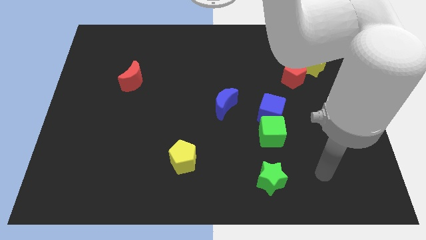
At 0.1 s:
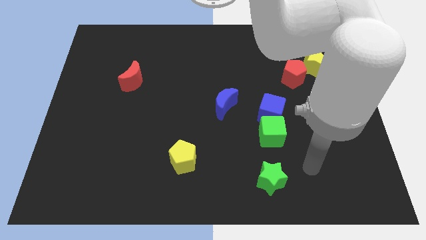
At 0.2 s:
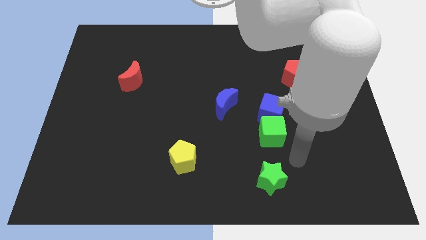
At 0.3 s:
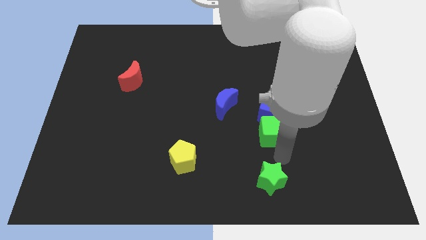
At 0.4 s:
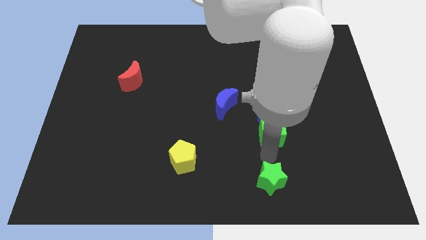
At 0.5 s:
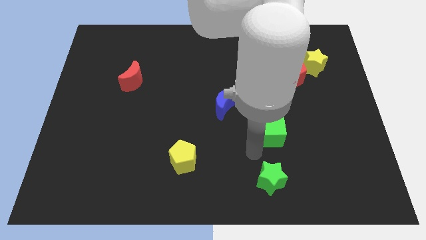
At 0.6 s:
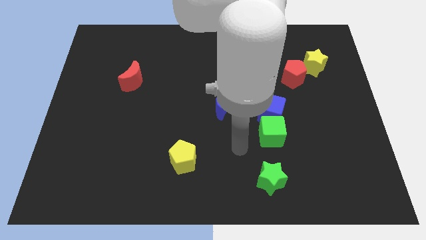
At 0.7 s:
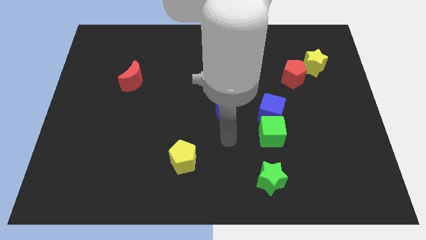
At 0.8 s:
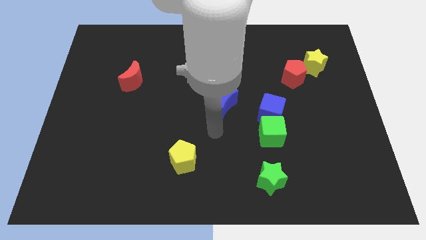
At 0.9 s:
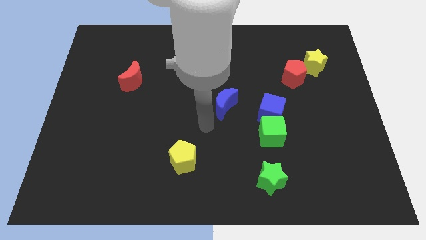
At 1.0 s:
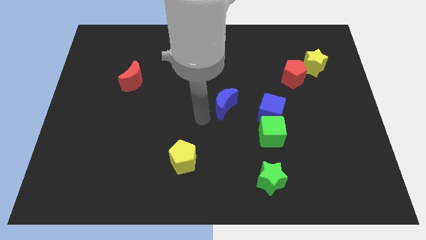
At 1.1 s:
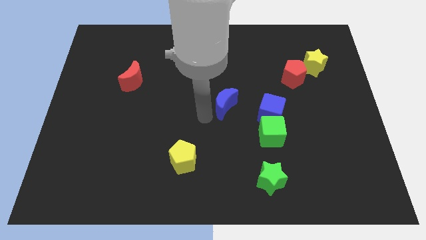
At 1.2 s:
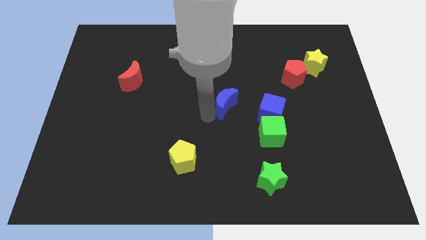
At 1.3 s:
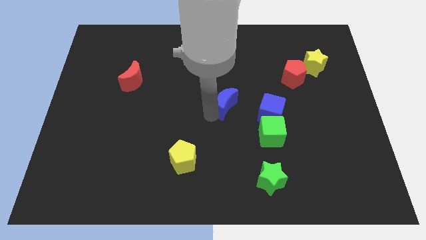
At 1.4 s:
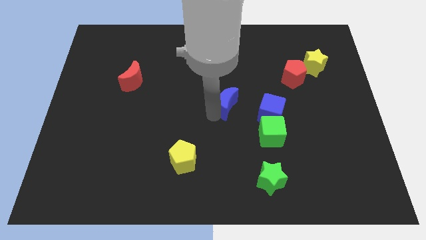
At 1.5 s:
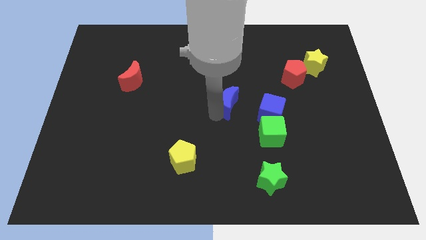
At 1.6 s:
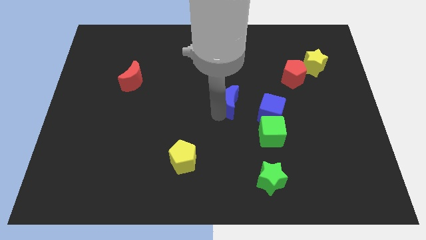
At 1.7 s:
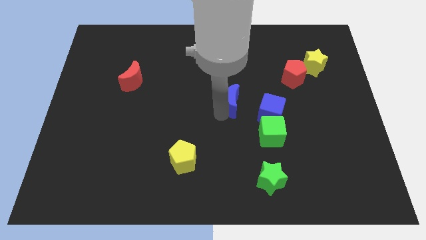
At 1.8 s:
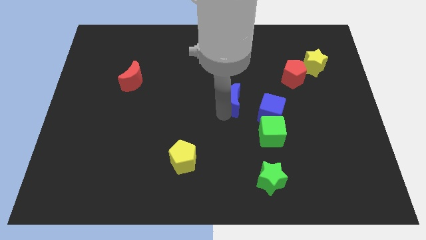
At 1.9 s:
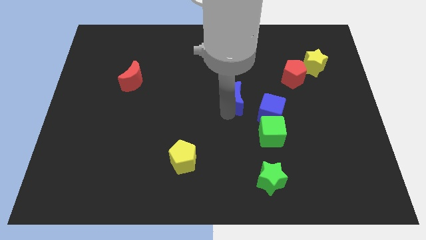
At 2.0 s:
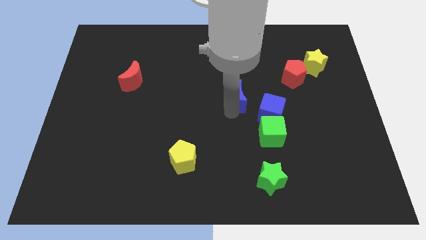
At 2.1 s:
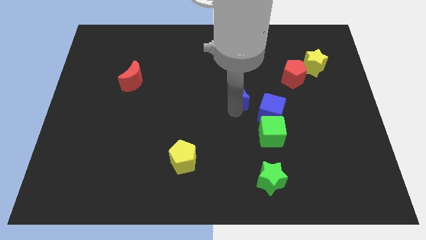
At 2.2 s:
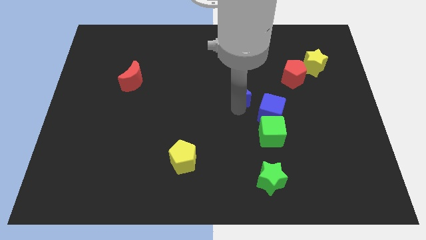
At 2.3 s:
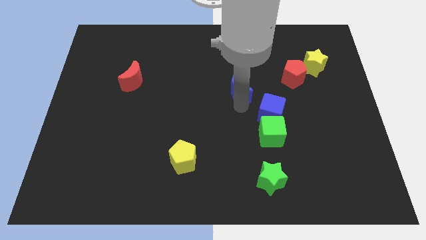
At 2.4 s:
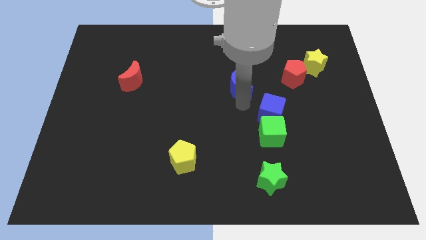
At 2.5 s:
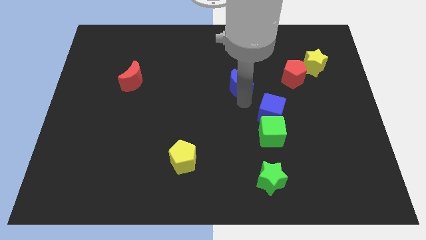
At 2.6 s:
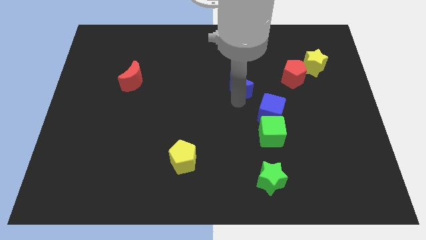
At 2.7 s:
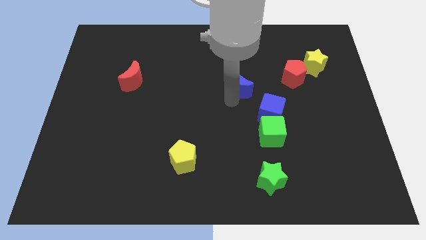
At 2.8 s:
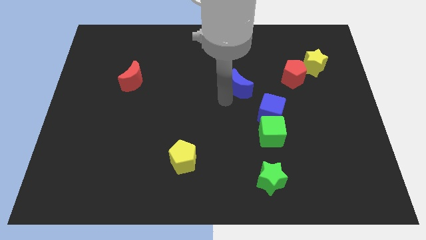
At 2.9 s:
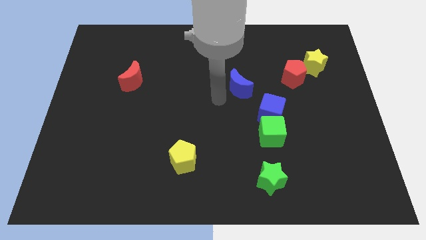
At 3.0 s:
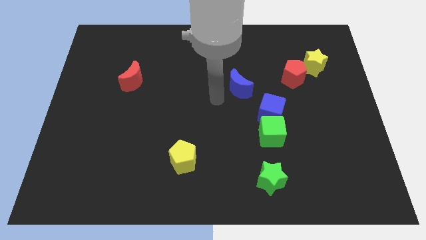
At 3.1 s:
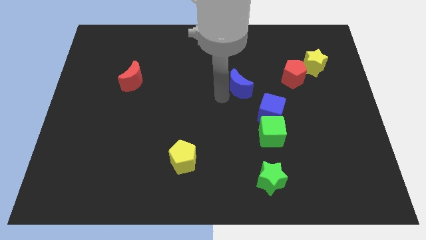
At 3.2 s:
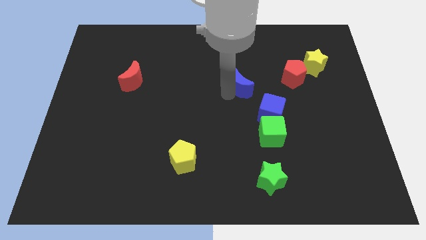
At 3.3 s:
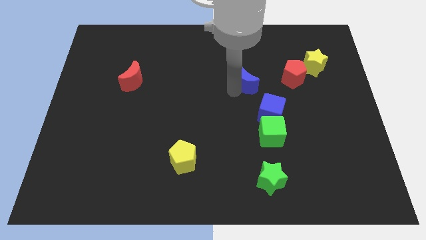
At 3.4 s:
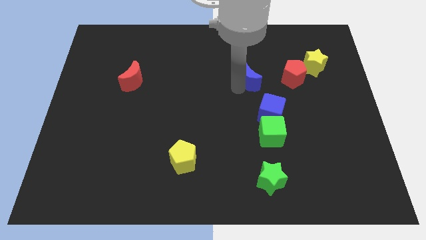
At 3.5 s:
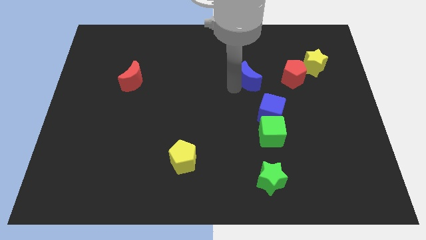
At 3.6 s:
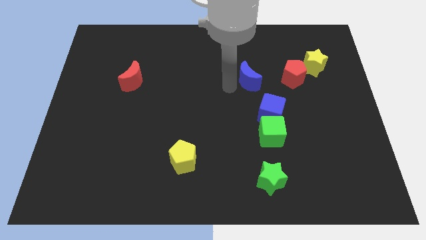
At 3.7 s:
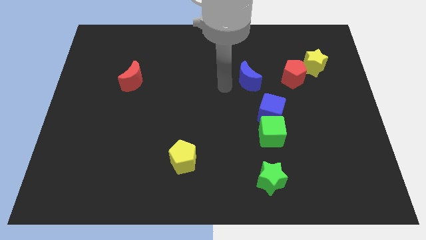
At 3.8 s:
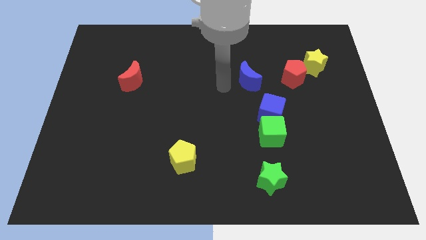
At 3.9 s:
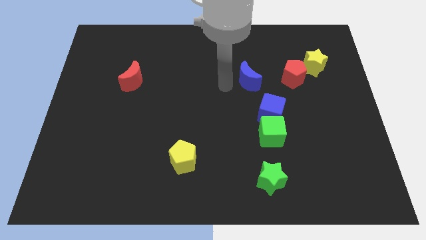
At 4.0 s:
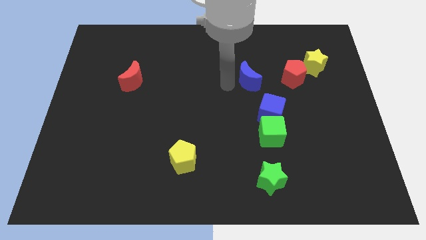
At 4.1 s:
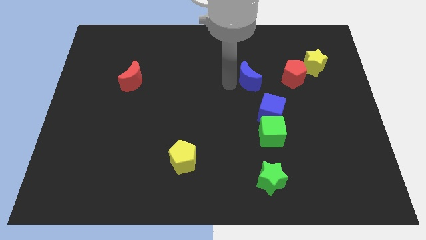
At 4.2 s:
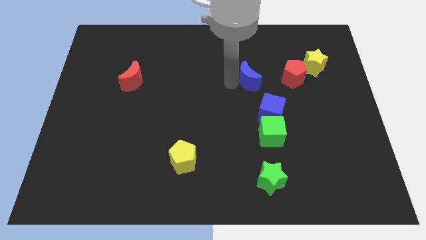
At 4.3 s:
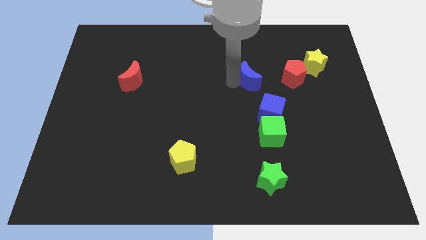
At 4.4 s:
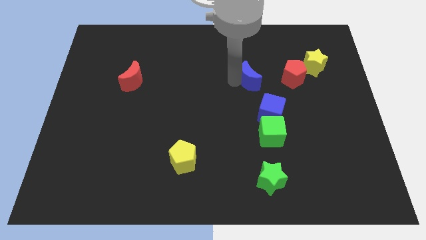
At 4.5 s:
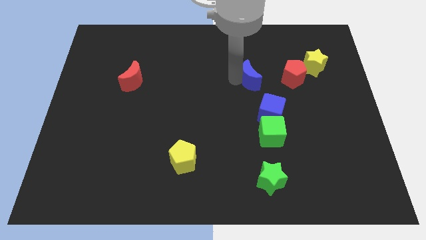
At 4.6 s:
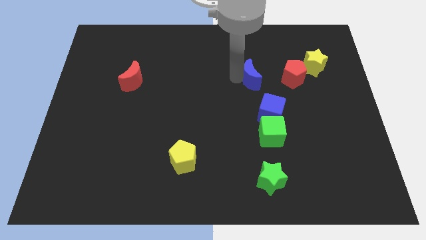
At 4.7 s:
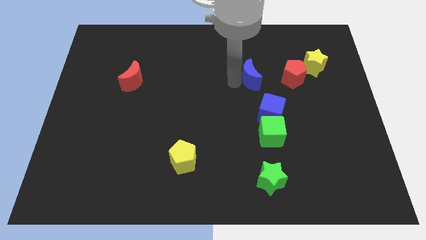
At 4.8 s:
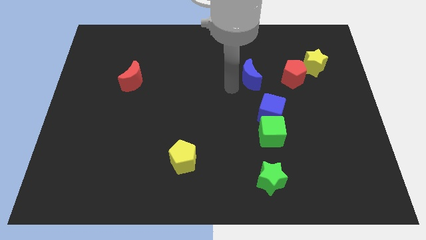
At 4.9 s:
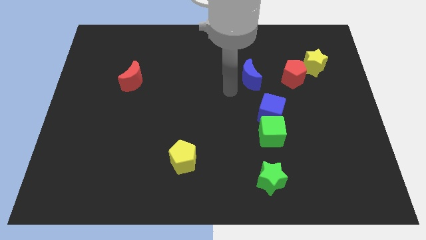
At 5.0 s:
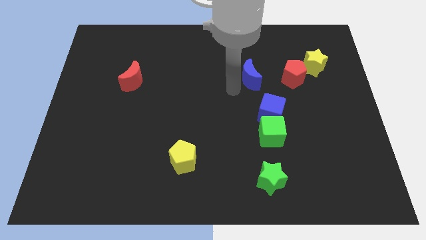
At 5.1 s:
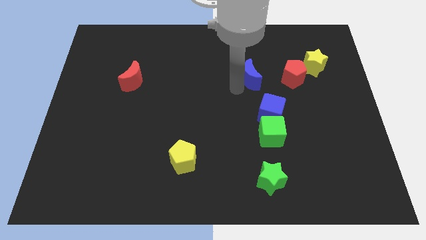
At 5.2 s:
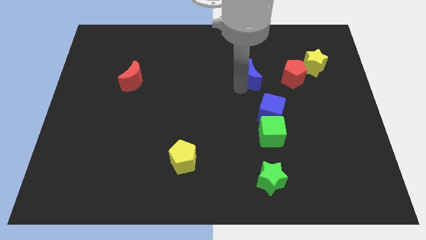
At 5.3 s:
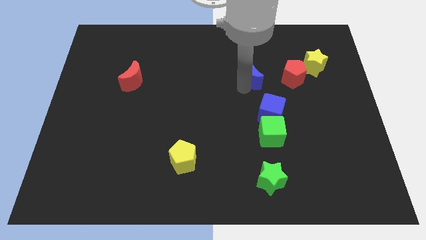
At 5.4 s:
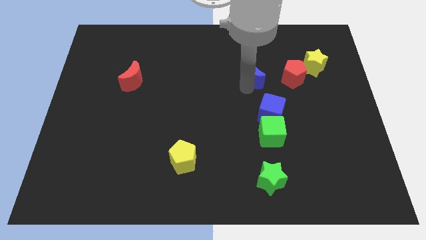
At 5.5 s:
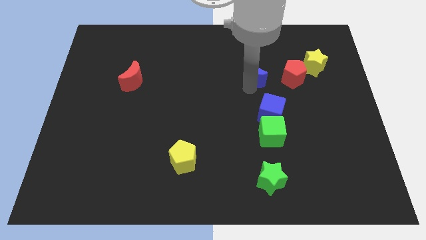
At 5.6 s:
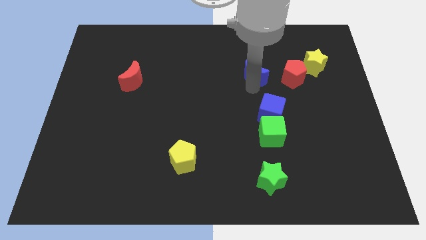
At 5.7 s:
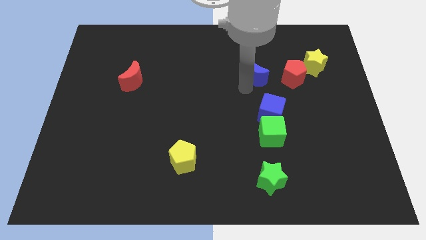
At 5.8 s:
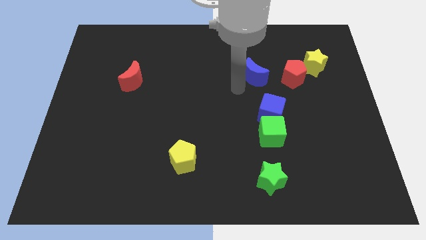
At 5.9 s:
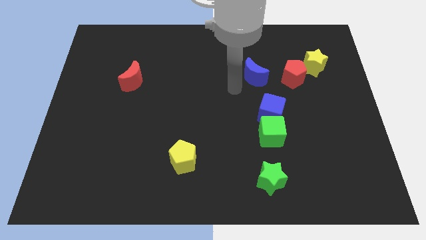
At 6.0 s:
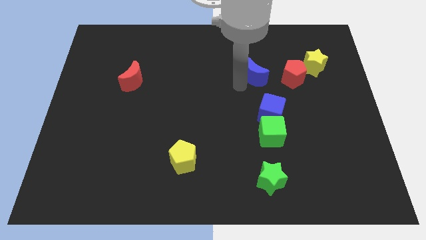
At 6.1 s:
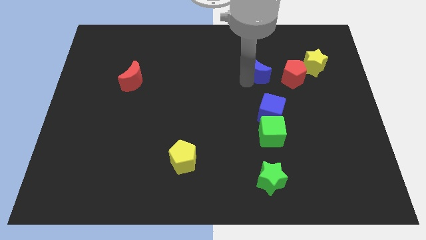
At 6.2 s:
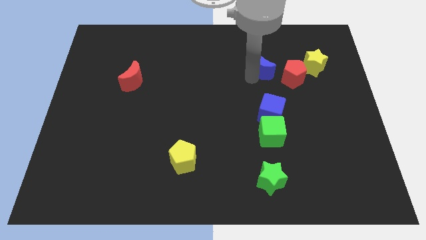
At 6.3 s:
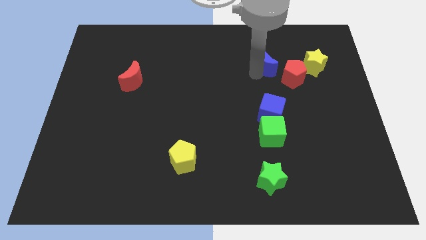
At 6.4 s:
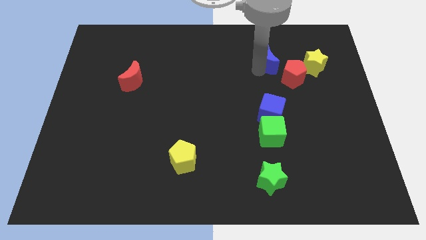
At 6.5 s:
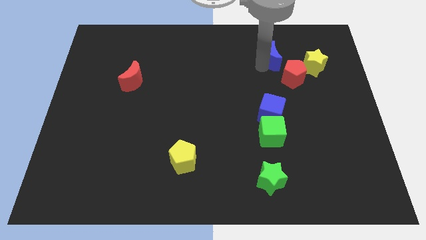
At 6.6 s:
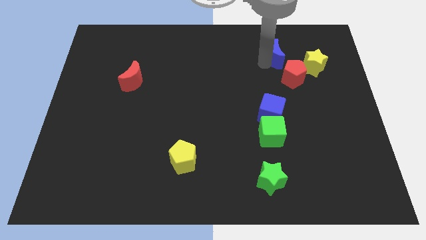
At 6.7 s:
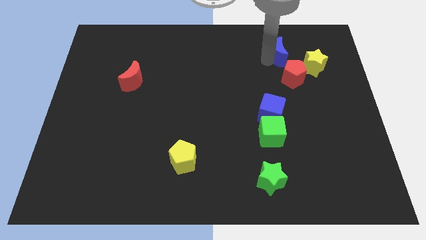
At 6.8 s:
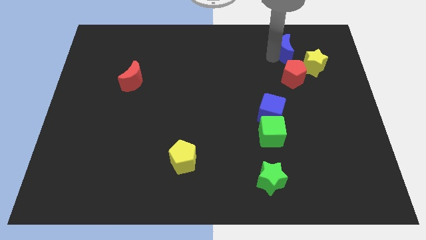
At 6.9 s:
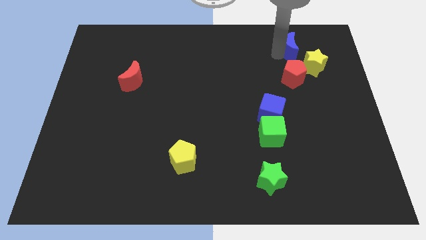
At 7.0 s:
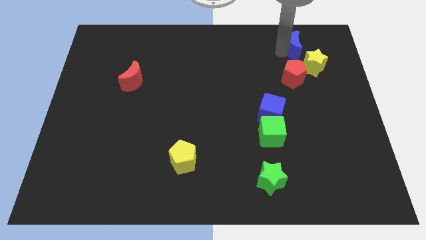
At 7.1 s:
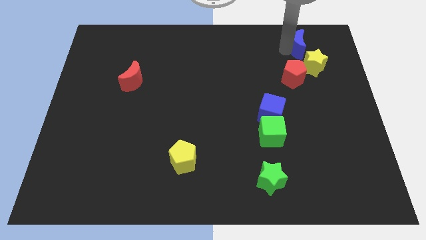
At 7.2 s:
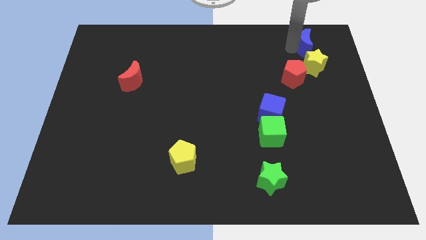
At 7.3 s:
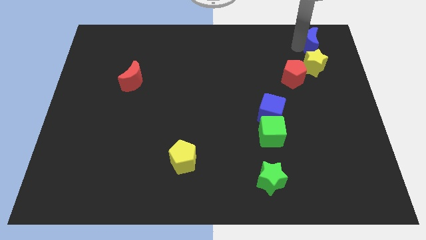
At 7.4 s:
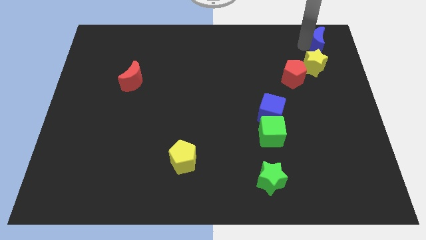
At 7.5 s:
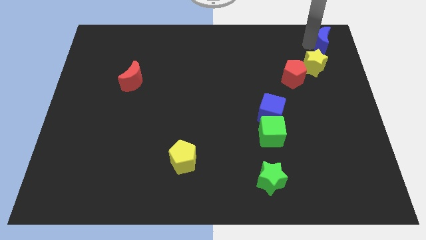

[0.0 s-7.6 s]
slide the blue moon to the upper right corner
